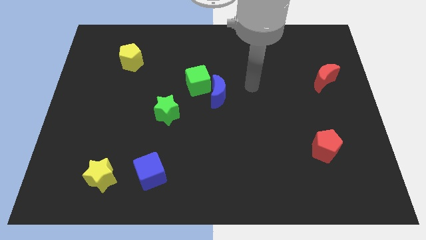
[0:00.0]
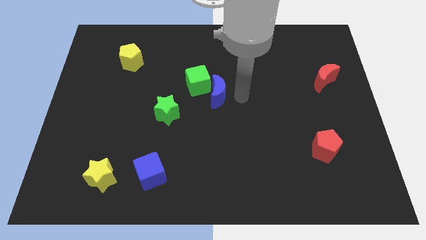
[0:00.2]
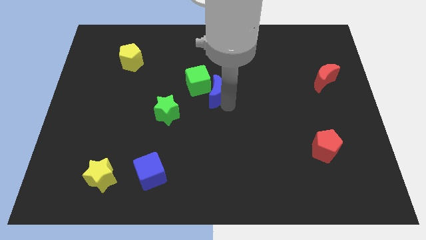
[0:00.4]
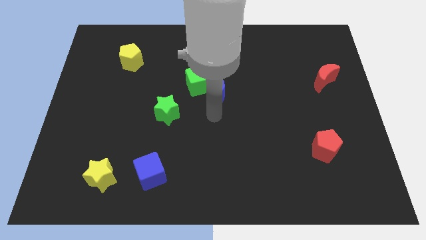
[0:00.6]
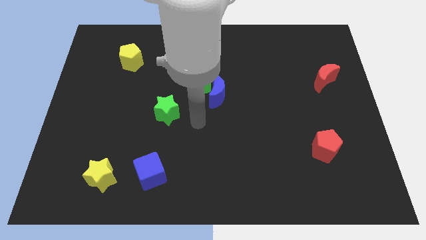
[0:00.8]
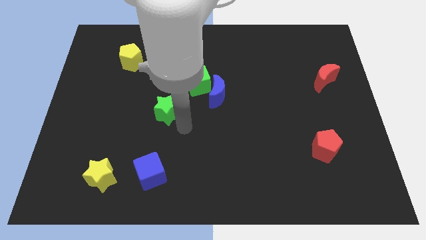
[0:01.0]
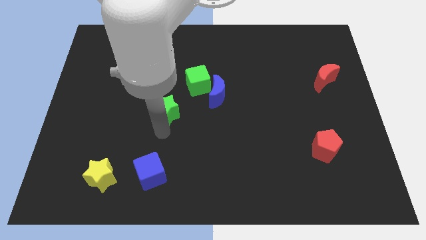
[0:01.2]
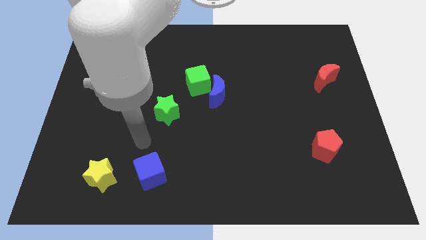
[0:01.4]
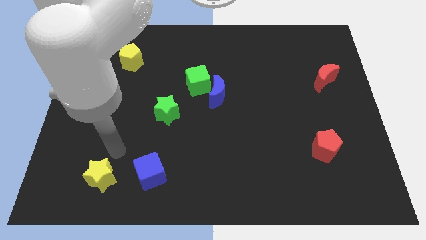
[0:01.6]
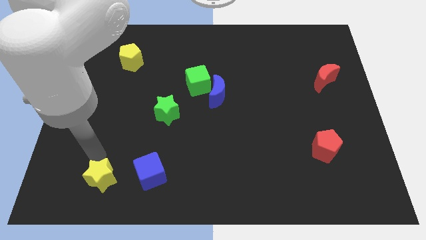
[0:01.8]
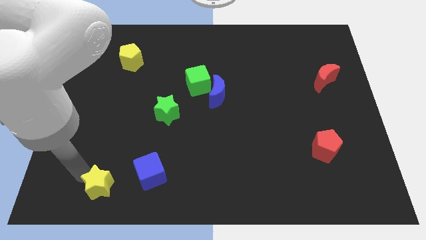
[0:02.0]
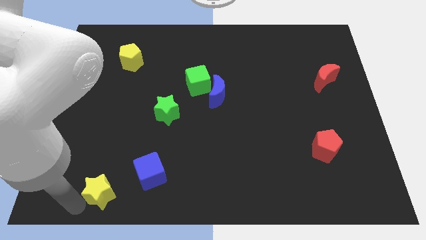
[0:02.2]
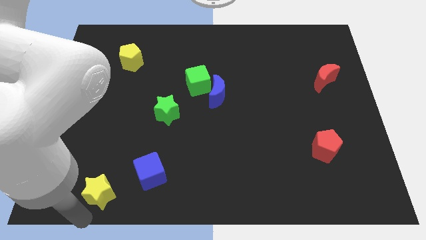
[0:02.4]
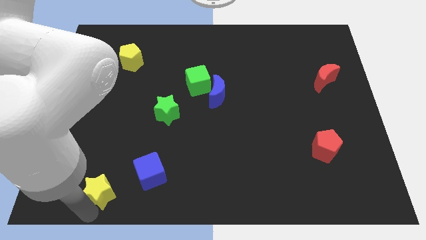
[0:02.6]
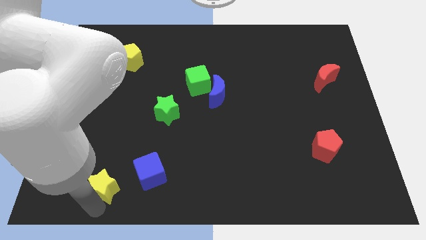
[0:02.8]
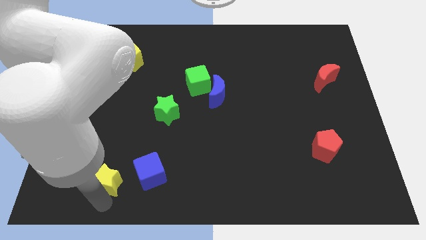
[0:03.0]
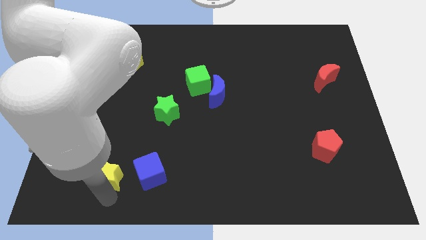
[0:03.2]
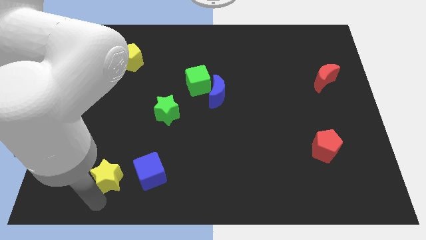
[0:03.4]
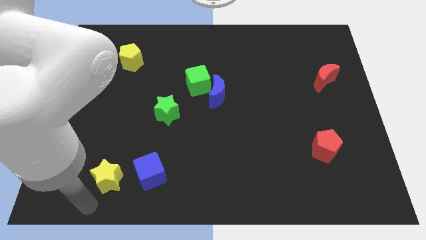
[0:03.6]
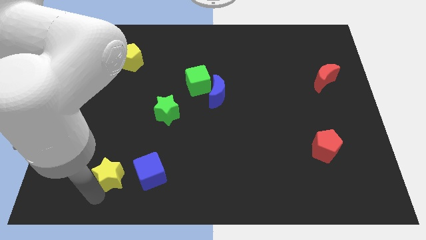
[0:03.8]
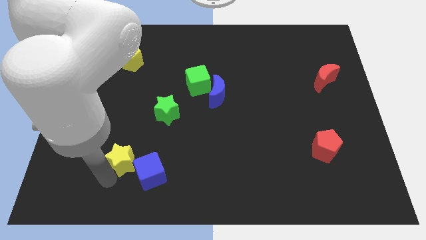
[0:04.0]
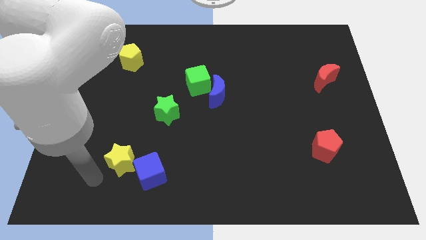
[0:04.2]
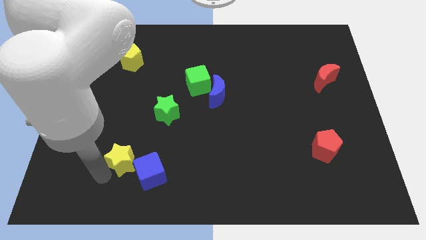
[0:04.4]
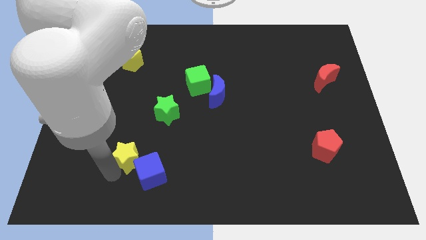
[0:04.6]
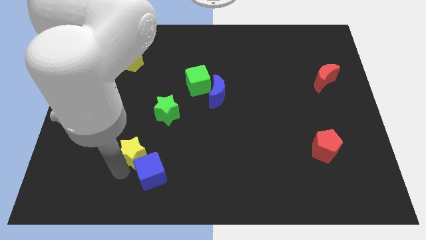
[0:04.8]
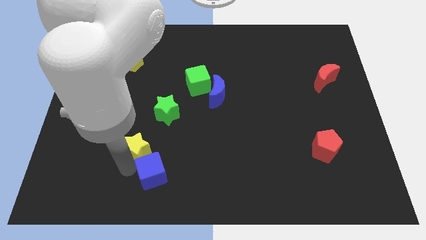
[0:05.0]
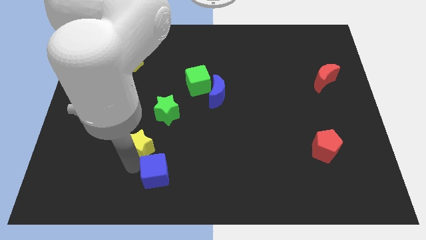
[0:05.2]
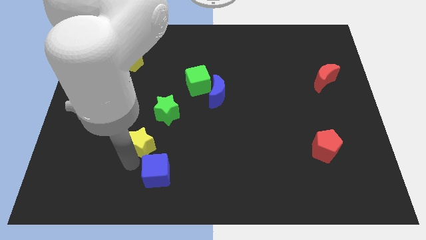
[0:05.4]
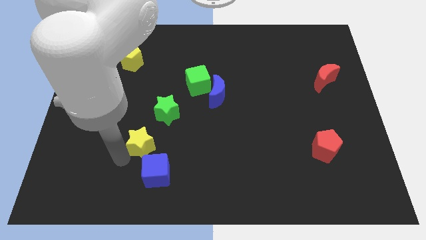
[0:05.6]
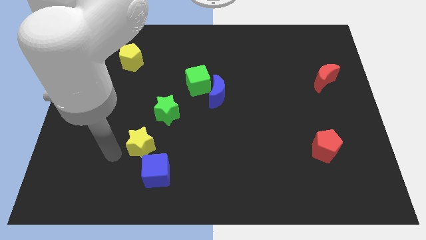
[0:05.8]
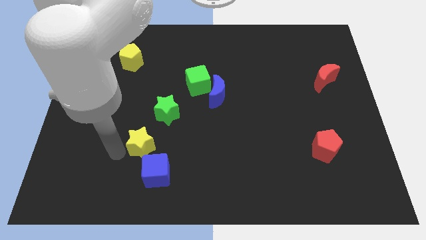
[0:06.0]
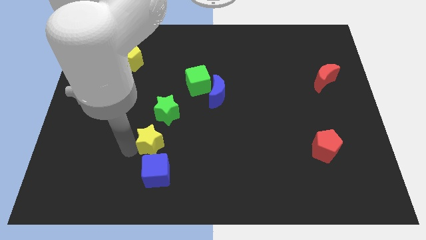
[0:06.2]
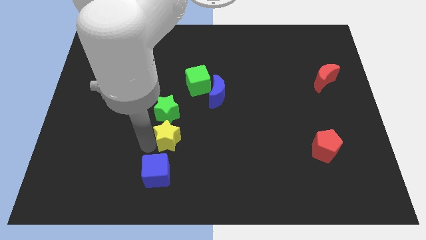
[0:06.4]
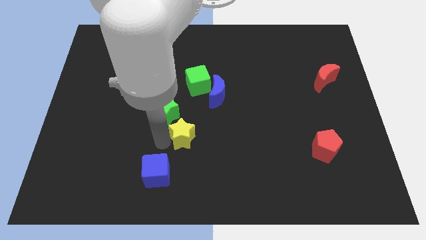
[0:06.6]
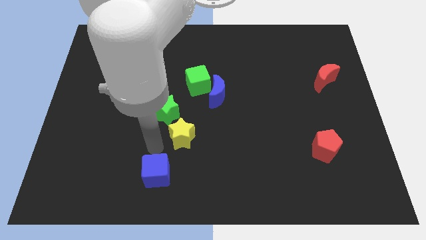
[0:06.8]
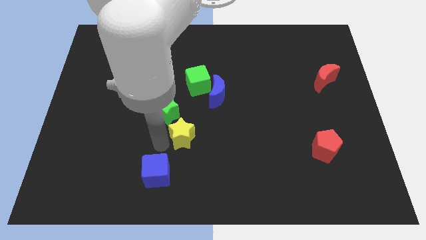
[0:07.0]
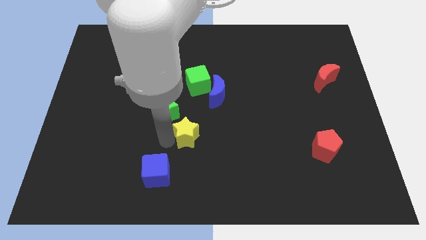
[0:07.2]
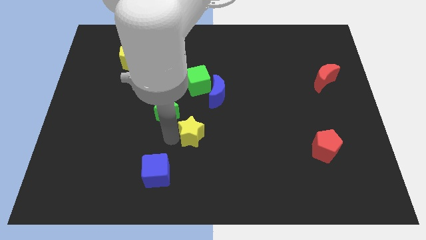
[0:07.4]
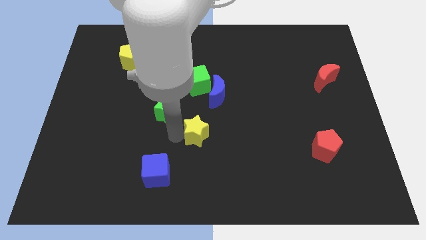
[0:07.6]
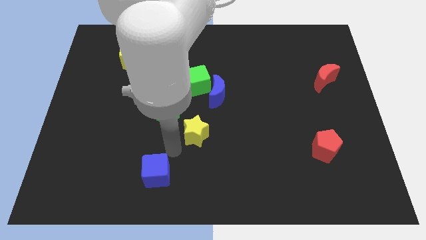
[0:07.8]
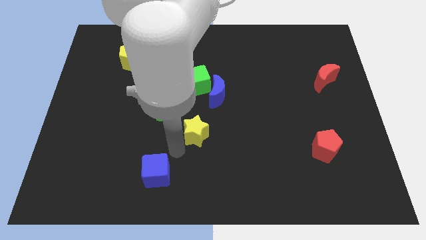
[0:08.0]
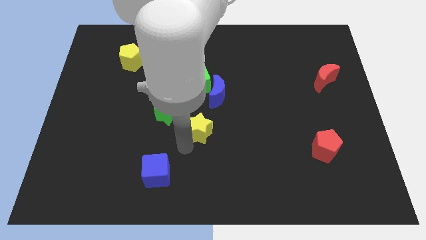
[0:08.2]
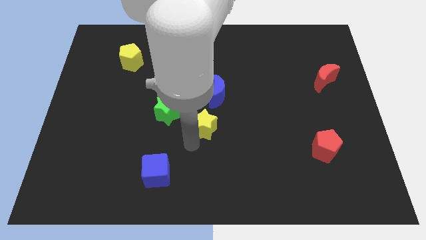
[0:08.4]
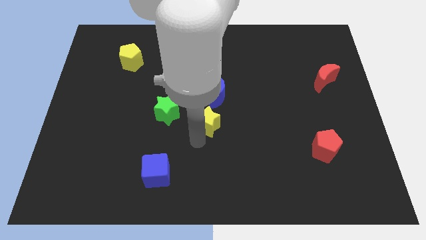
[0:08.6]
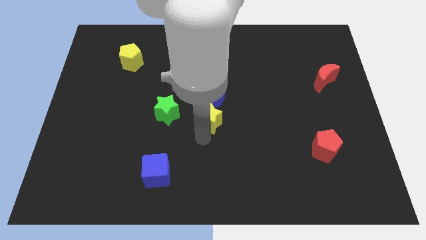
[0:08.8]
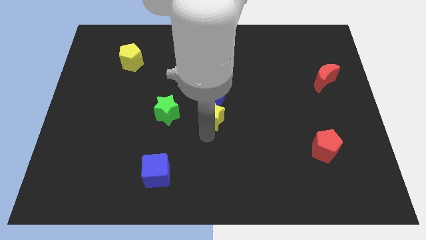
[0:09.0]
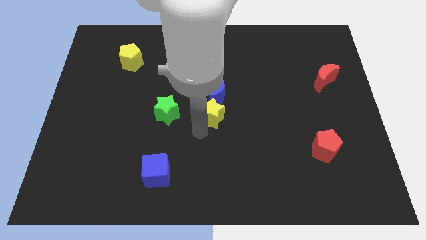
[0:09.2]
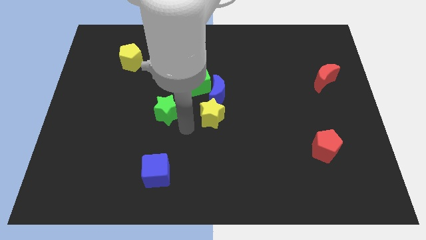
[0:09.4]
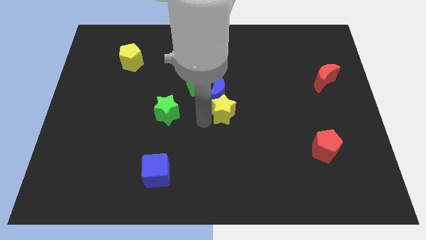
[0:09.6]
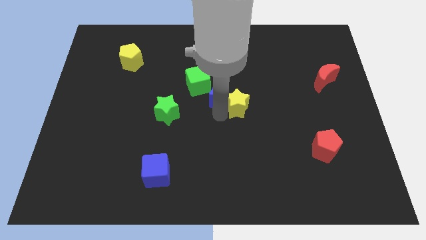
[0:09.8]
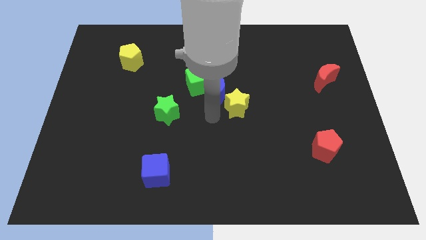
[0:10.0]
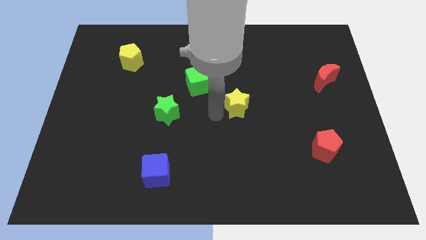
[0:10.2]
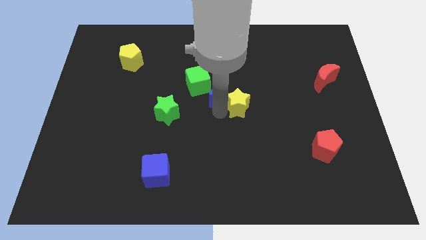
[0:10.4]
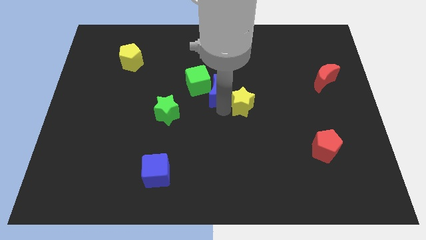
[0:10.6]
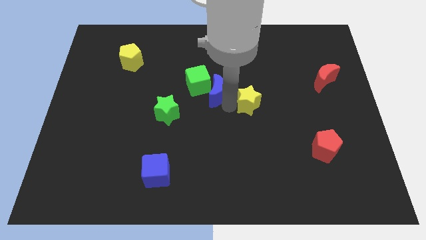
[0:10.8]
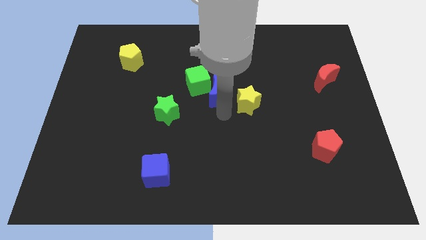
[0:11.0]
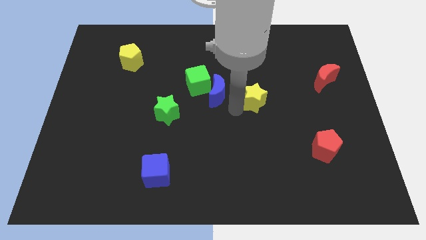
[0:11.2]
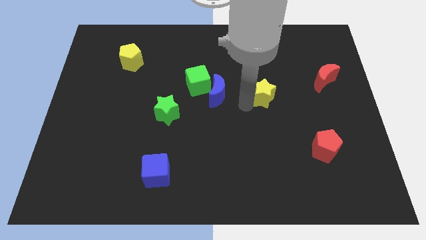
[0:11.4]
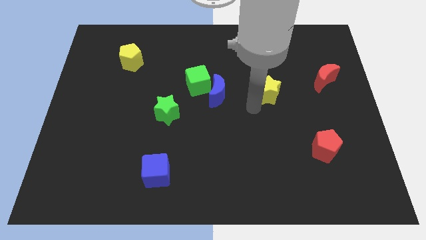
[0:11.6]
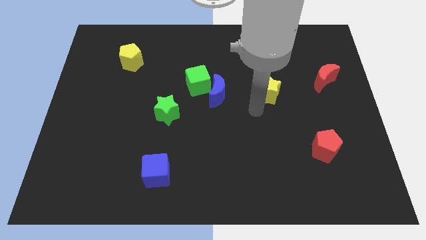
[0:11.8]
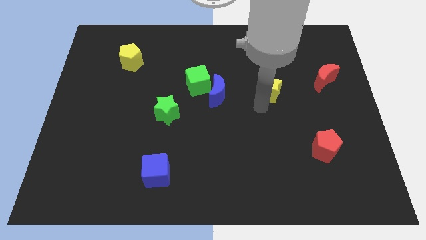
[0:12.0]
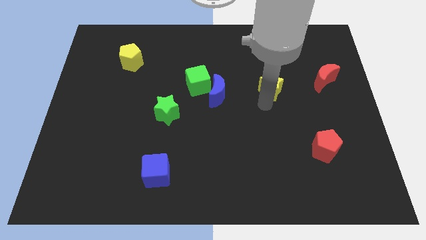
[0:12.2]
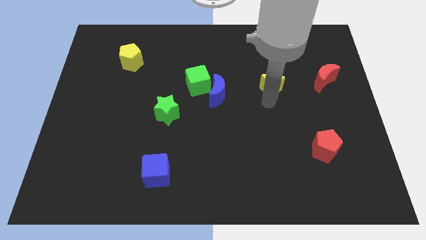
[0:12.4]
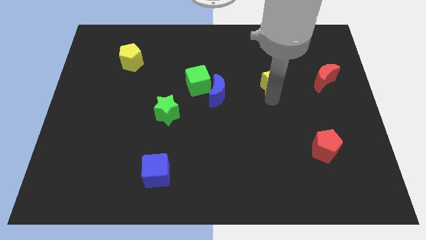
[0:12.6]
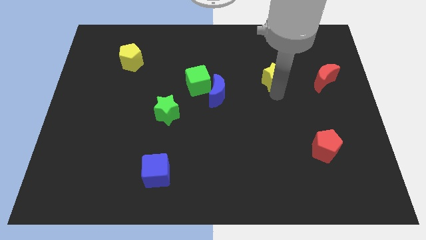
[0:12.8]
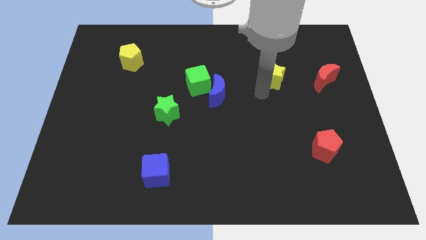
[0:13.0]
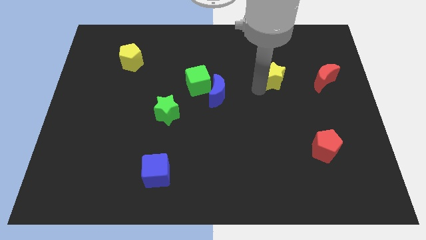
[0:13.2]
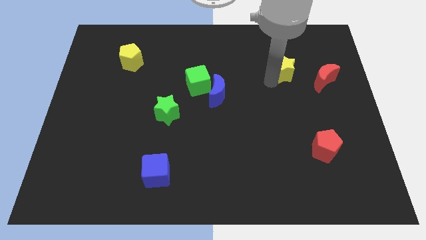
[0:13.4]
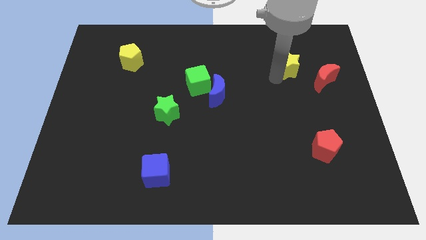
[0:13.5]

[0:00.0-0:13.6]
slide the yellow star diagonally up and to the left of the red moon

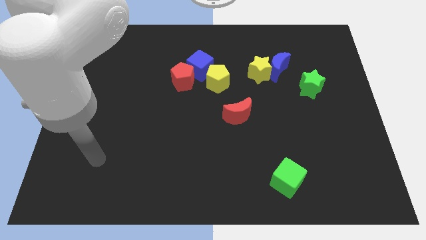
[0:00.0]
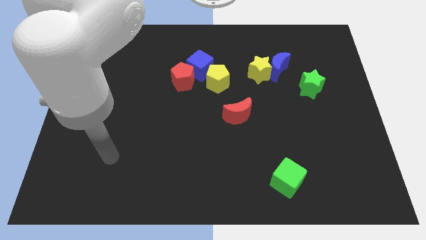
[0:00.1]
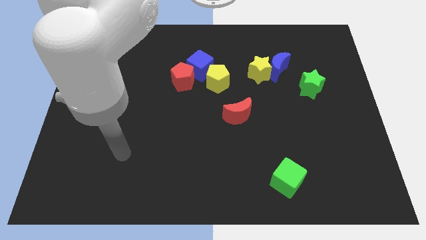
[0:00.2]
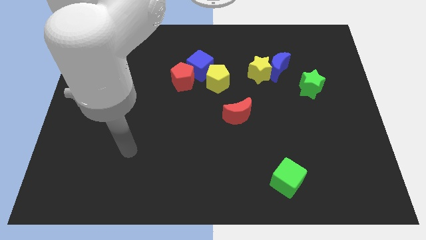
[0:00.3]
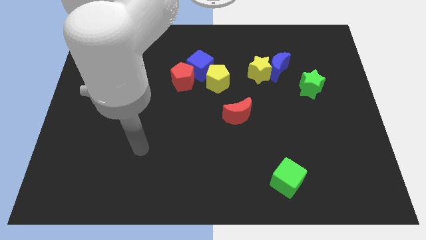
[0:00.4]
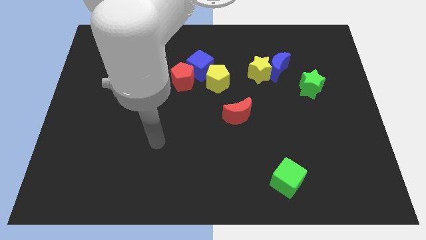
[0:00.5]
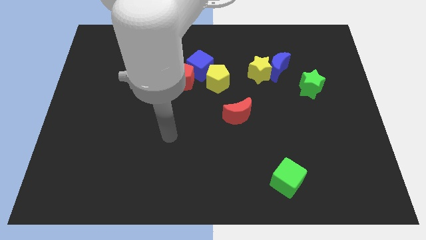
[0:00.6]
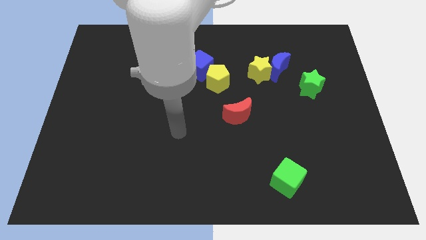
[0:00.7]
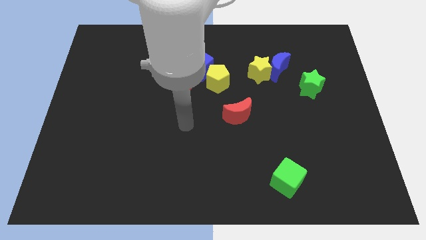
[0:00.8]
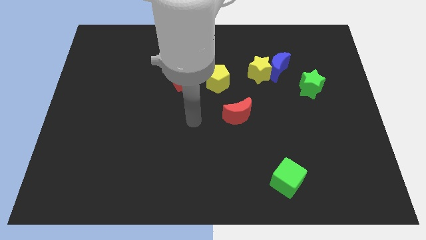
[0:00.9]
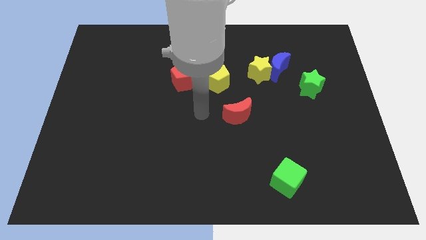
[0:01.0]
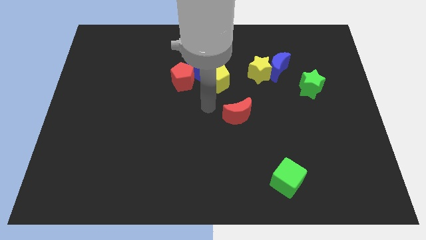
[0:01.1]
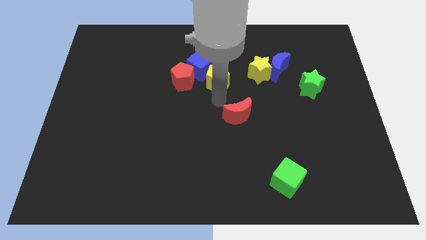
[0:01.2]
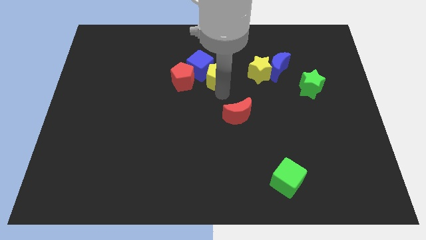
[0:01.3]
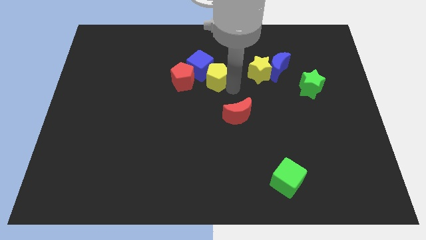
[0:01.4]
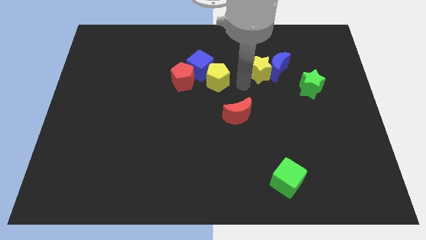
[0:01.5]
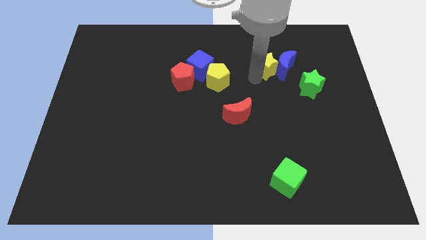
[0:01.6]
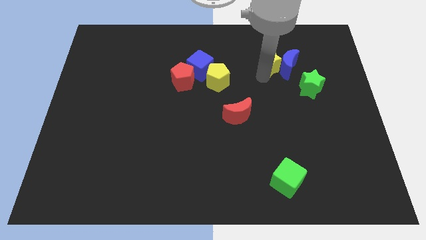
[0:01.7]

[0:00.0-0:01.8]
move the blue moon to the top side of the green star
